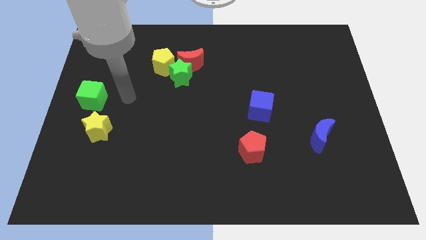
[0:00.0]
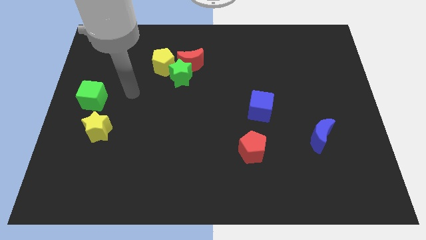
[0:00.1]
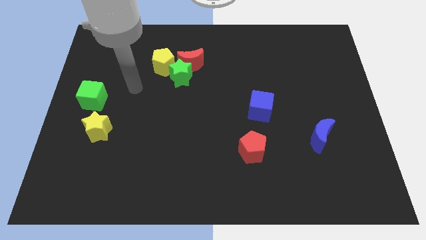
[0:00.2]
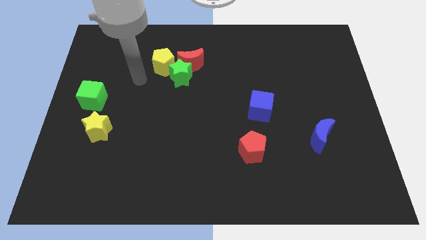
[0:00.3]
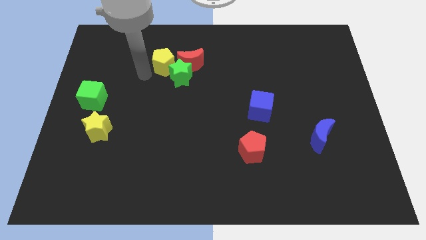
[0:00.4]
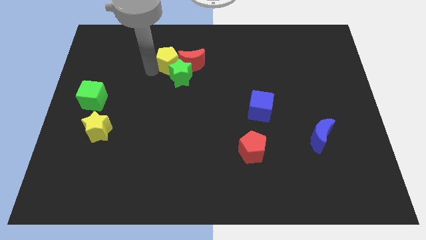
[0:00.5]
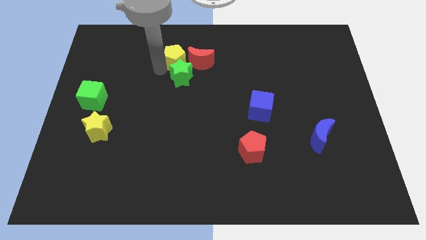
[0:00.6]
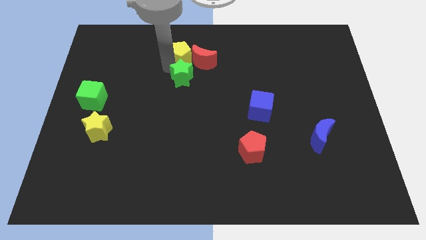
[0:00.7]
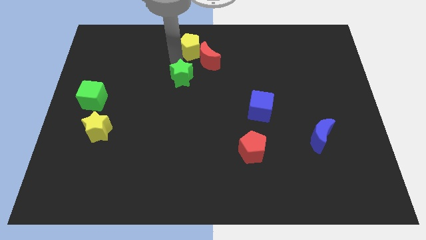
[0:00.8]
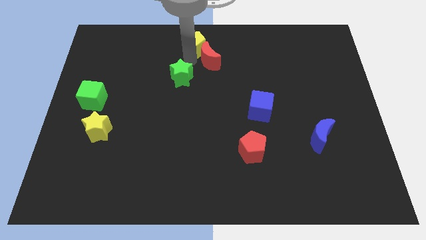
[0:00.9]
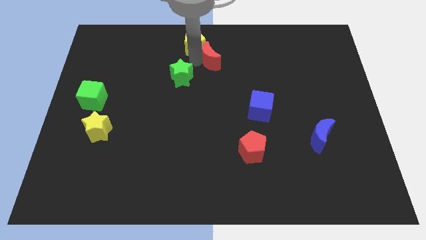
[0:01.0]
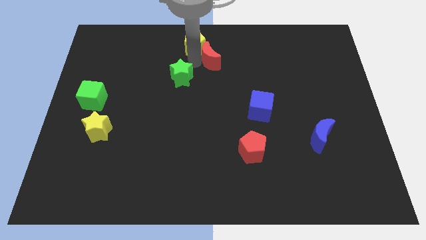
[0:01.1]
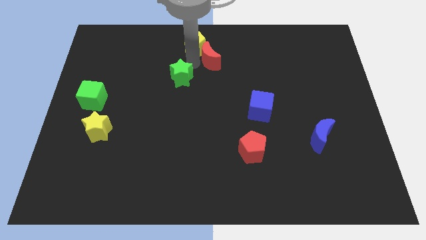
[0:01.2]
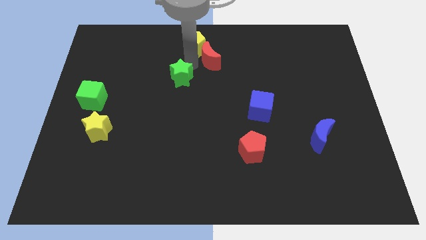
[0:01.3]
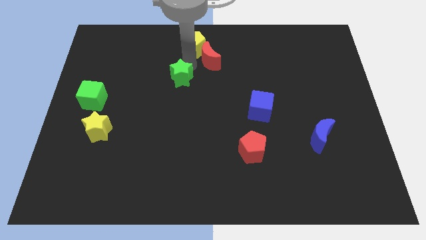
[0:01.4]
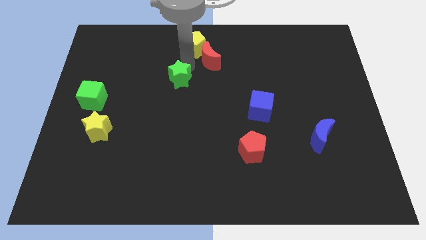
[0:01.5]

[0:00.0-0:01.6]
separate the green star from the red moon and yellow pentagon

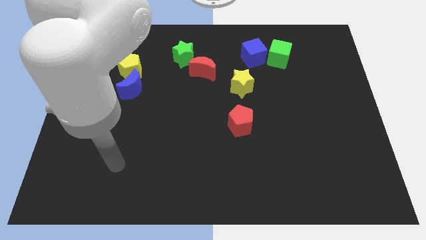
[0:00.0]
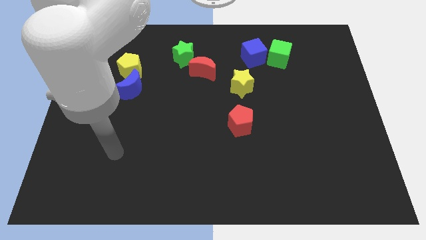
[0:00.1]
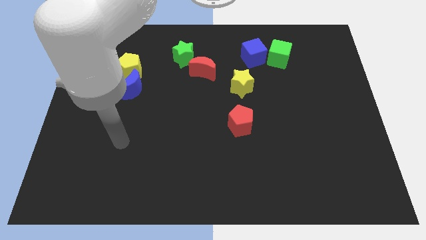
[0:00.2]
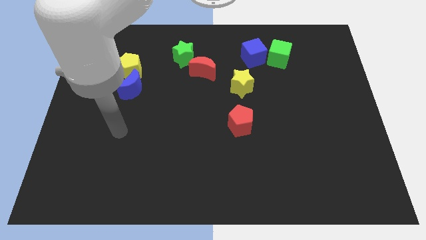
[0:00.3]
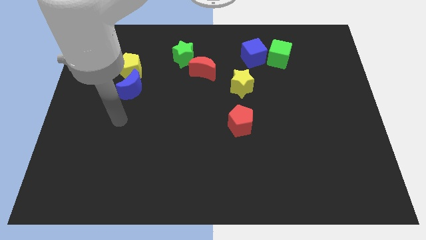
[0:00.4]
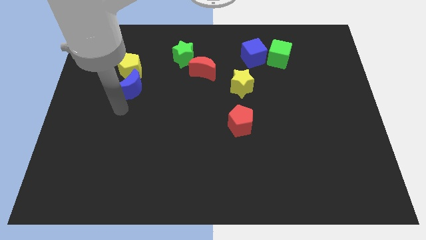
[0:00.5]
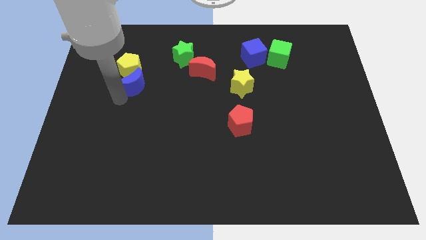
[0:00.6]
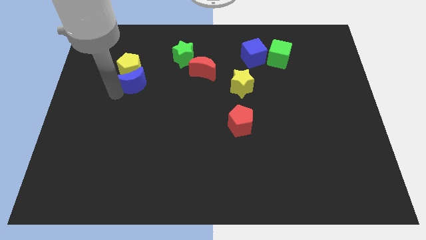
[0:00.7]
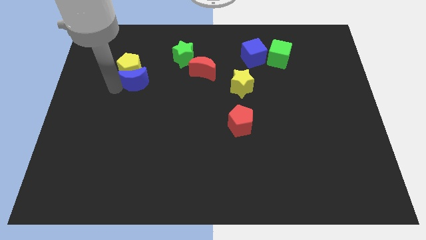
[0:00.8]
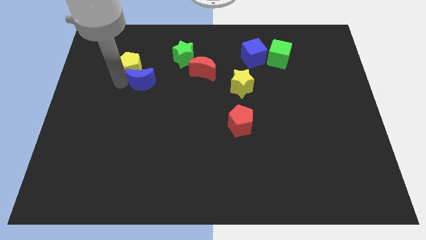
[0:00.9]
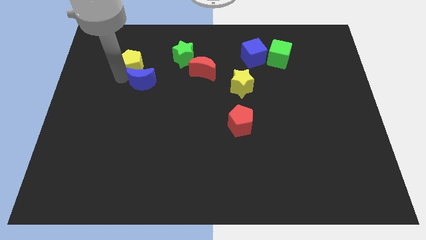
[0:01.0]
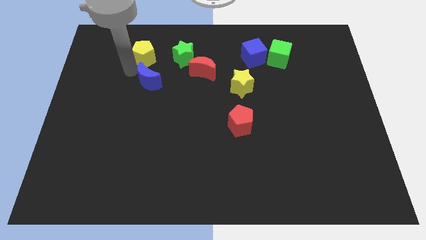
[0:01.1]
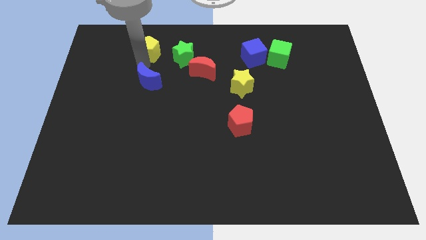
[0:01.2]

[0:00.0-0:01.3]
move the blue moon away from the yellow pentagon

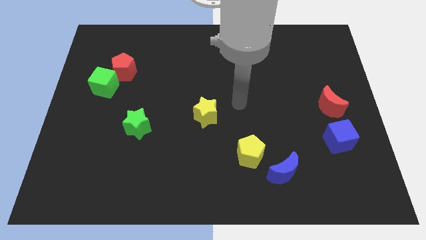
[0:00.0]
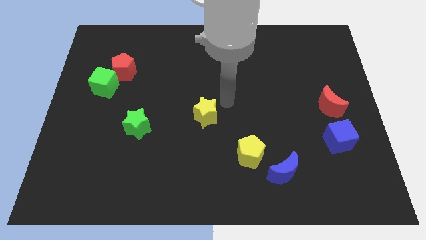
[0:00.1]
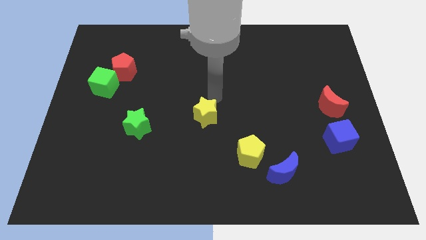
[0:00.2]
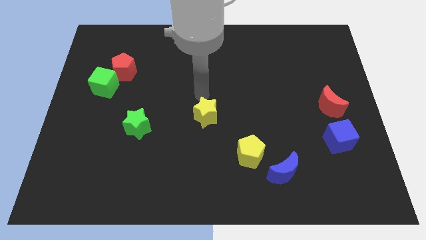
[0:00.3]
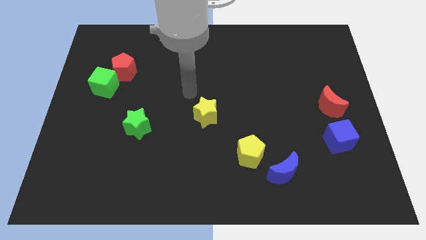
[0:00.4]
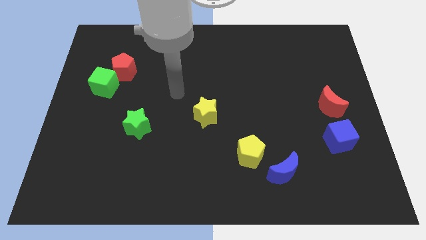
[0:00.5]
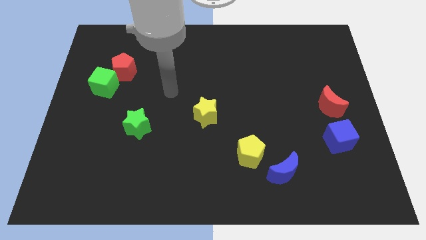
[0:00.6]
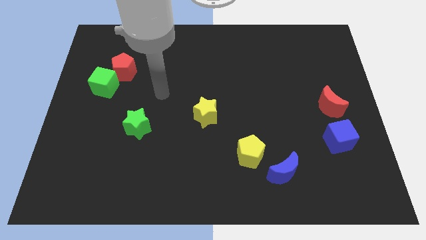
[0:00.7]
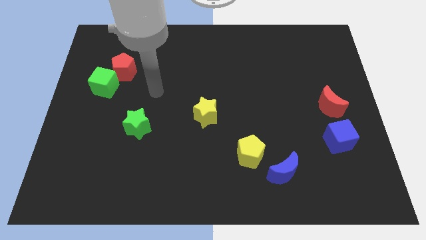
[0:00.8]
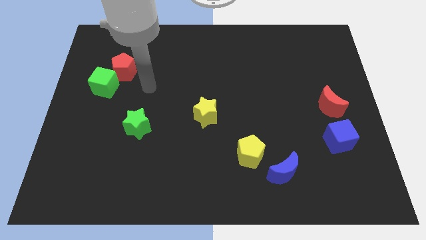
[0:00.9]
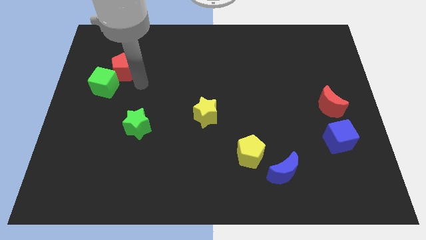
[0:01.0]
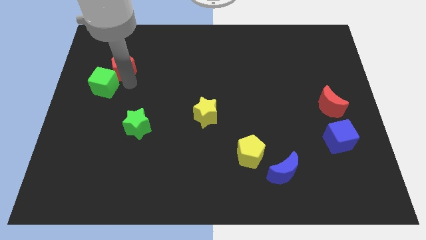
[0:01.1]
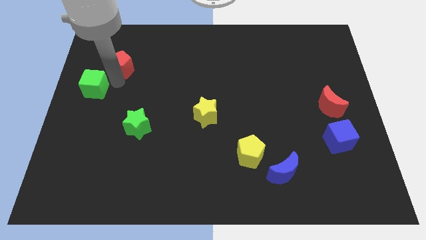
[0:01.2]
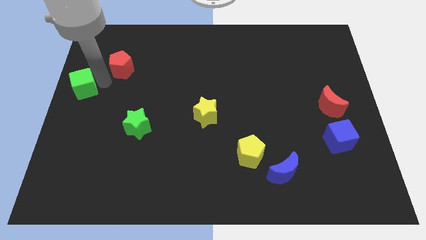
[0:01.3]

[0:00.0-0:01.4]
pull the red pentagon apart from the green cube

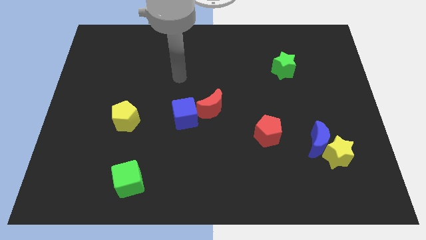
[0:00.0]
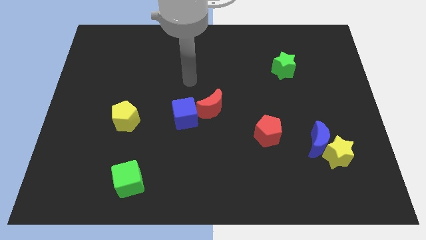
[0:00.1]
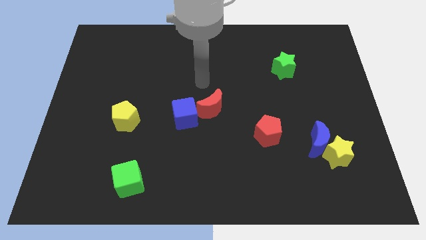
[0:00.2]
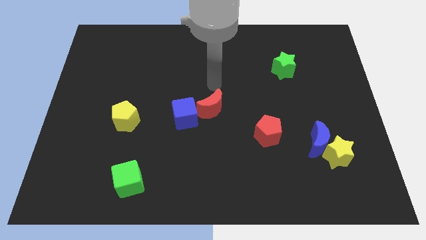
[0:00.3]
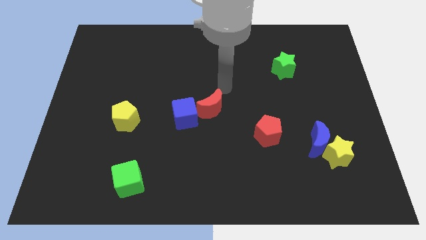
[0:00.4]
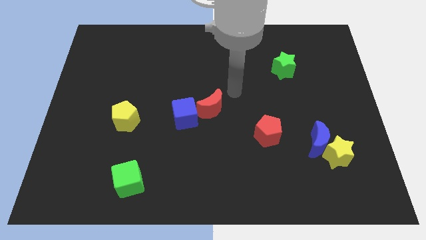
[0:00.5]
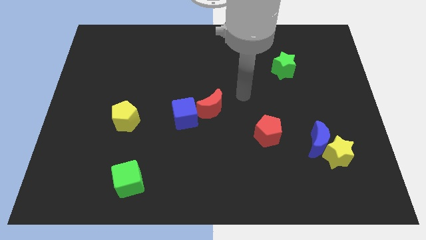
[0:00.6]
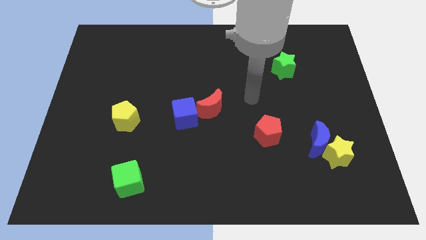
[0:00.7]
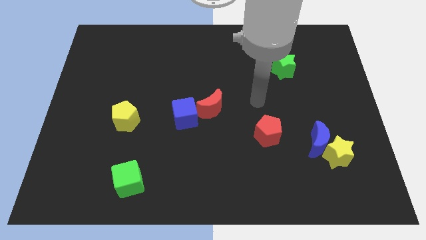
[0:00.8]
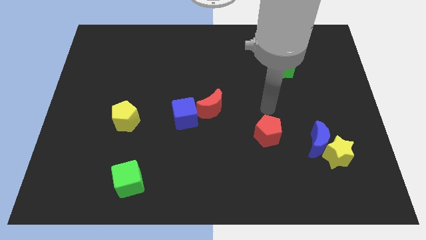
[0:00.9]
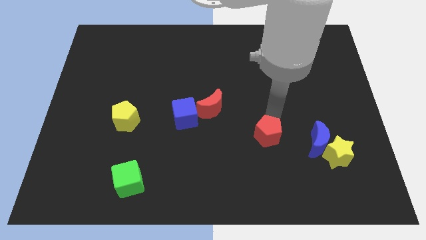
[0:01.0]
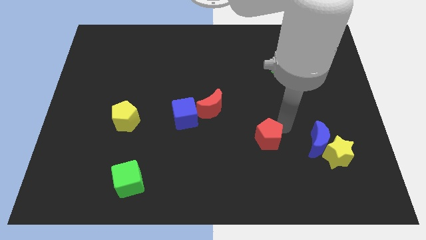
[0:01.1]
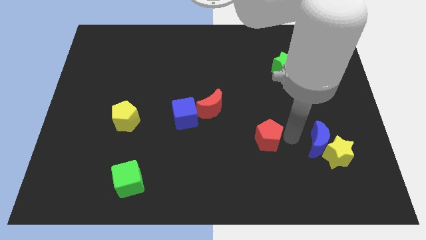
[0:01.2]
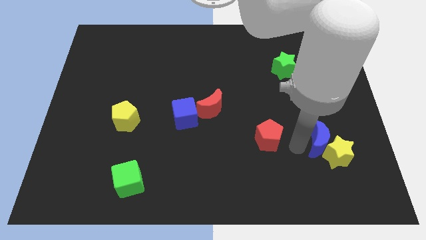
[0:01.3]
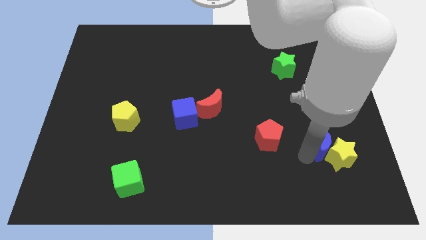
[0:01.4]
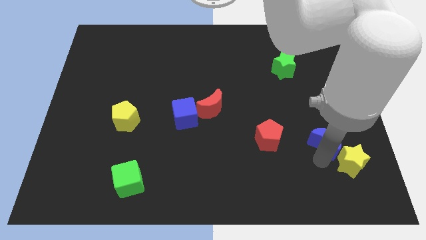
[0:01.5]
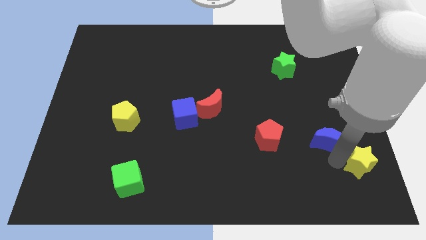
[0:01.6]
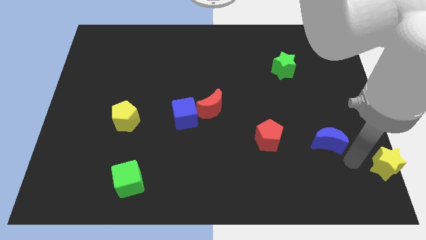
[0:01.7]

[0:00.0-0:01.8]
pull the blue moon apart from the yellow star

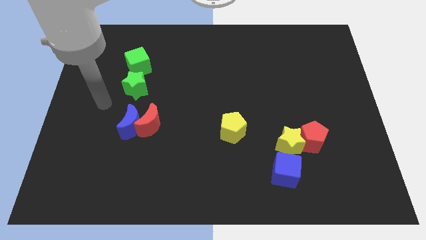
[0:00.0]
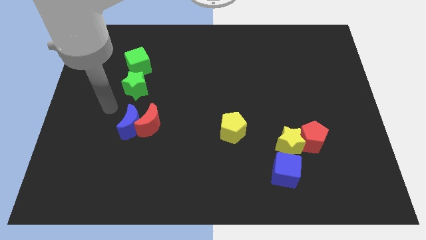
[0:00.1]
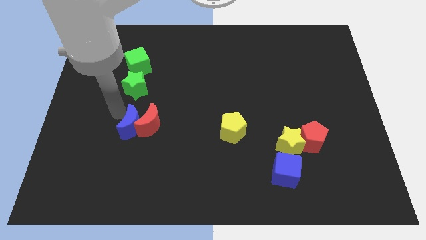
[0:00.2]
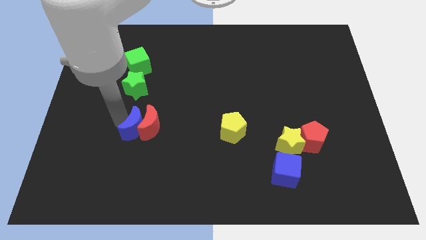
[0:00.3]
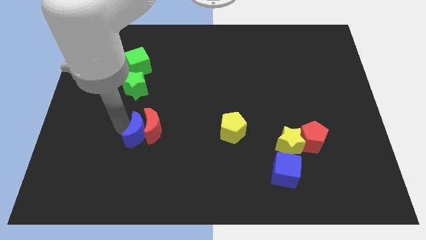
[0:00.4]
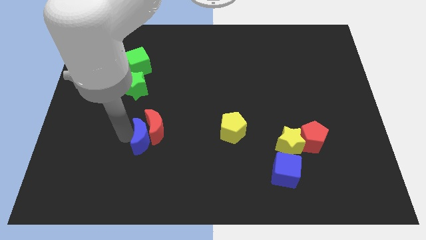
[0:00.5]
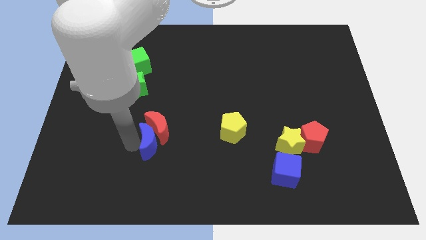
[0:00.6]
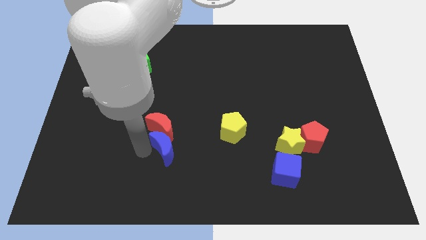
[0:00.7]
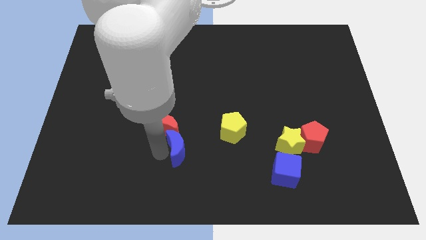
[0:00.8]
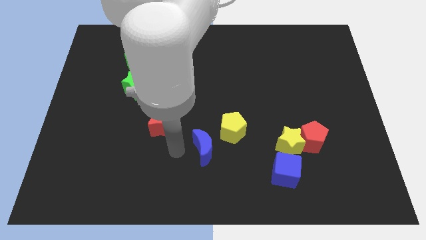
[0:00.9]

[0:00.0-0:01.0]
pull the red moon apart from the blue moon

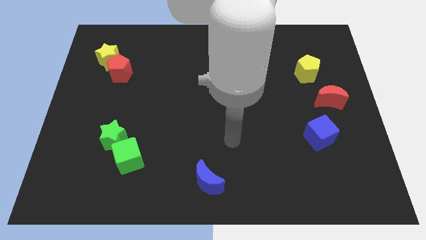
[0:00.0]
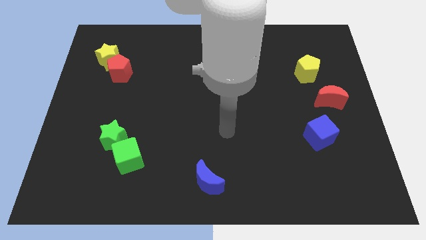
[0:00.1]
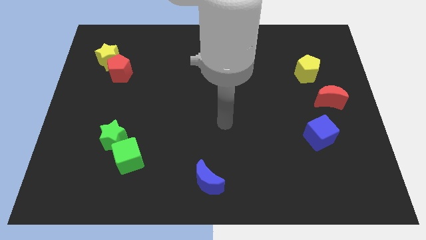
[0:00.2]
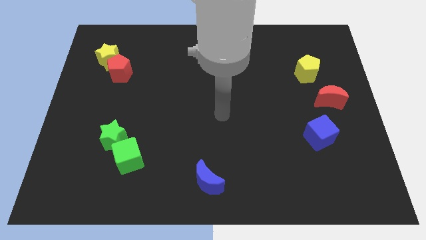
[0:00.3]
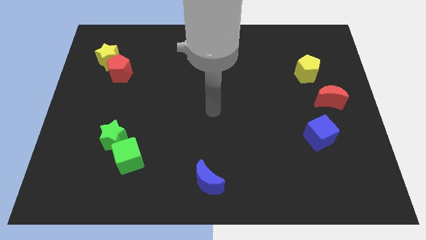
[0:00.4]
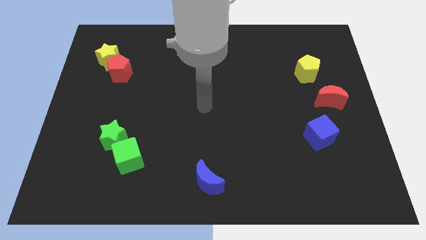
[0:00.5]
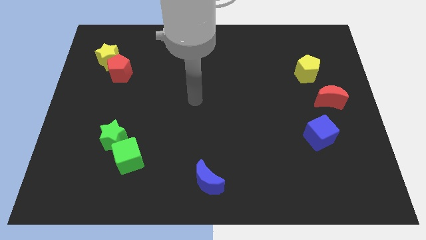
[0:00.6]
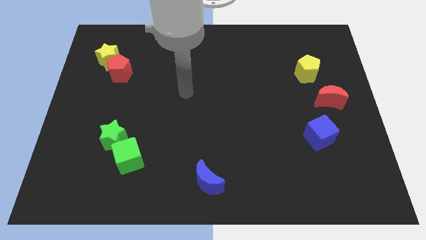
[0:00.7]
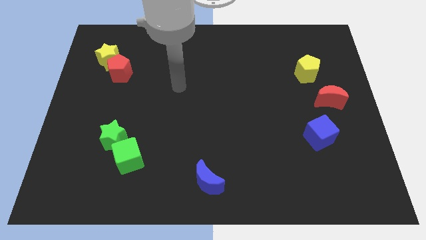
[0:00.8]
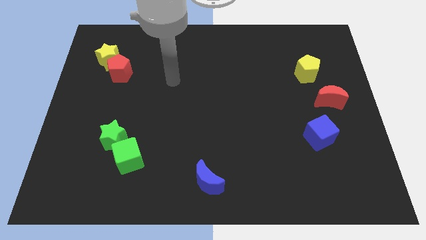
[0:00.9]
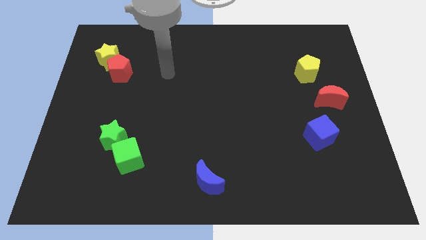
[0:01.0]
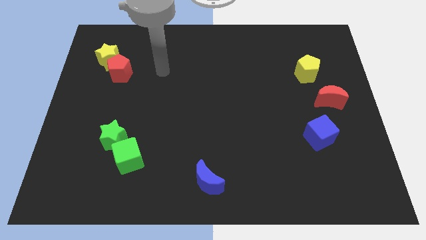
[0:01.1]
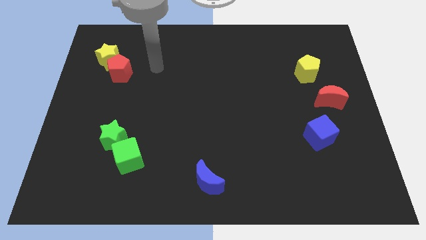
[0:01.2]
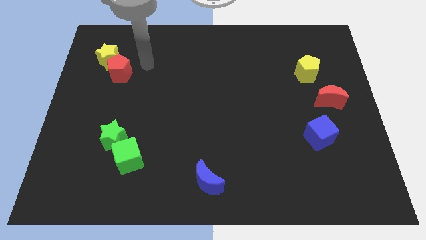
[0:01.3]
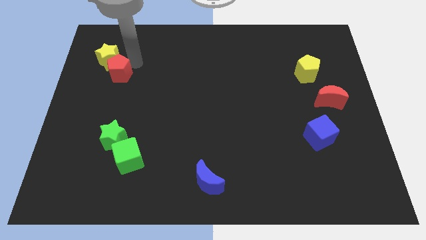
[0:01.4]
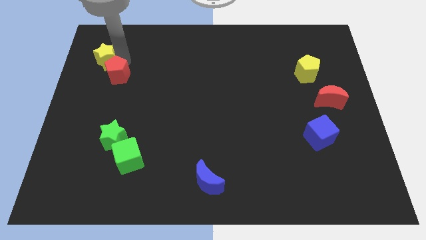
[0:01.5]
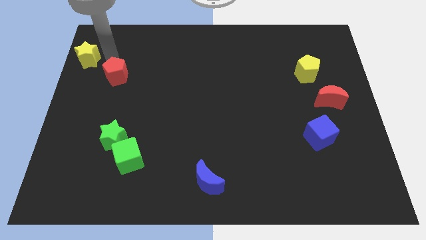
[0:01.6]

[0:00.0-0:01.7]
pull the red pentagon apart from the yellow star

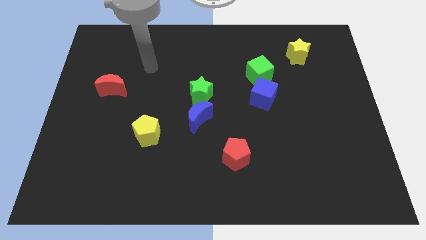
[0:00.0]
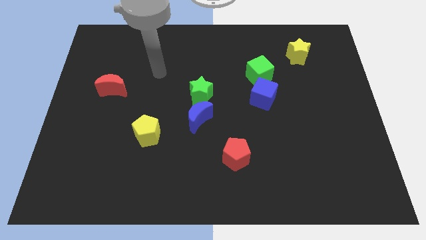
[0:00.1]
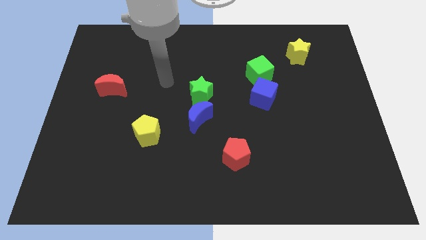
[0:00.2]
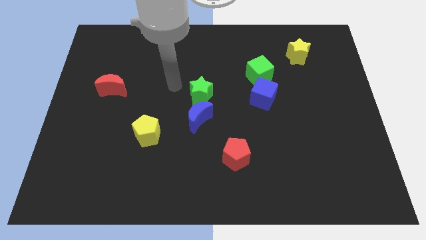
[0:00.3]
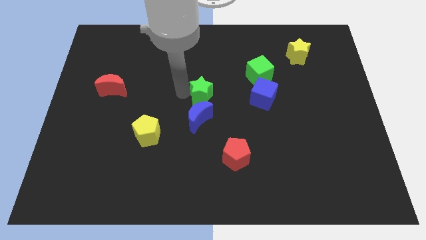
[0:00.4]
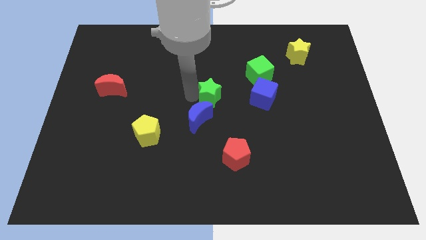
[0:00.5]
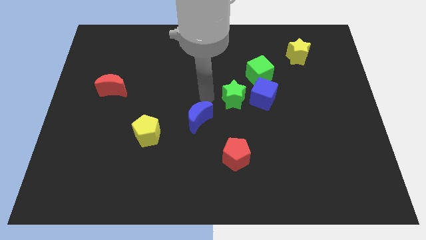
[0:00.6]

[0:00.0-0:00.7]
separate the blue moon from the green star

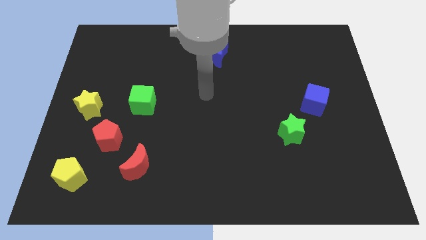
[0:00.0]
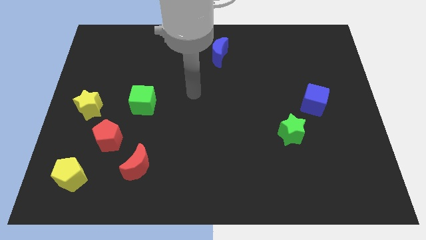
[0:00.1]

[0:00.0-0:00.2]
separate the red moon from the red pentagon
